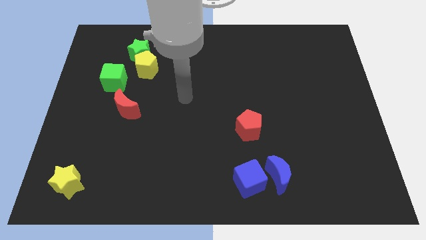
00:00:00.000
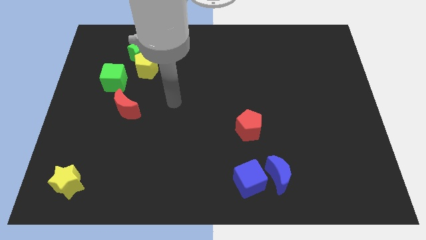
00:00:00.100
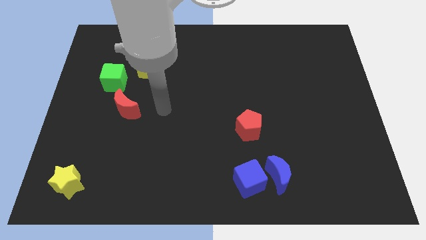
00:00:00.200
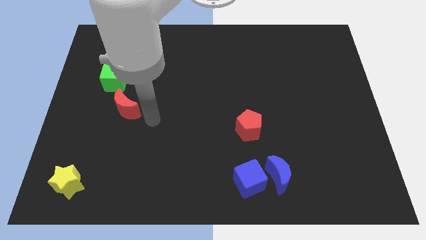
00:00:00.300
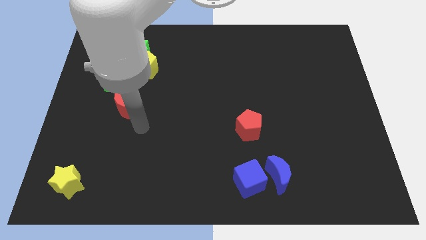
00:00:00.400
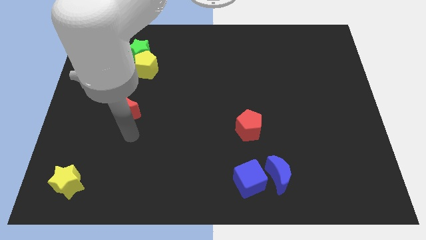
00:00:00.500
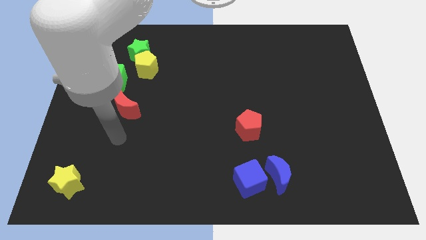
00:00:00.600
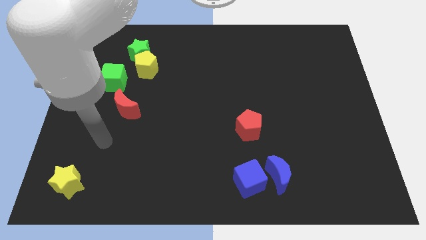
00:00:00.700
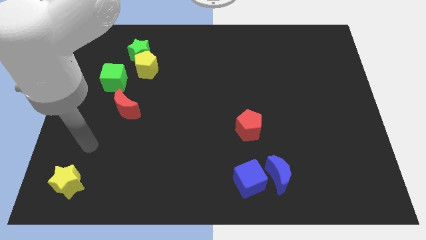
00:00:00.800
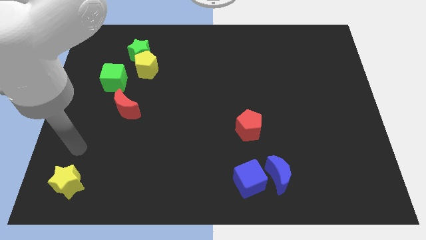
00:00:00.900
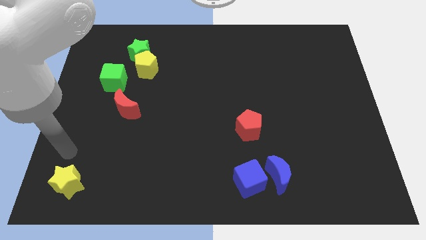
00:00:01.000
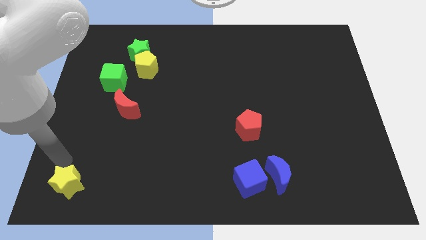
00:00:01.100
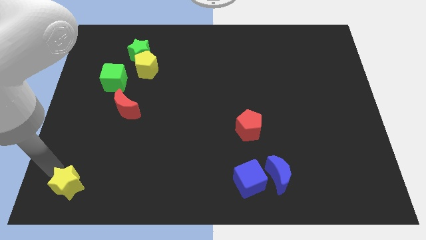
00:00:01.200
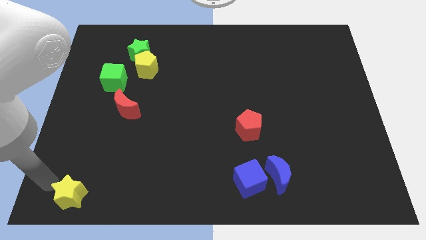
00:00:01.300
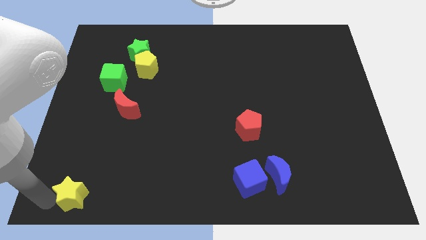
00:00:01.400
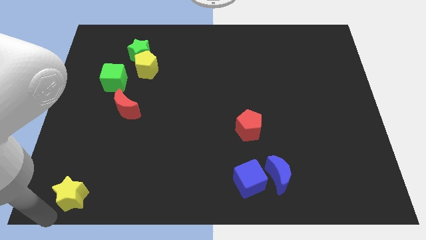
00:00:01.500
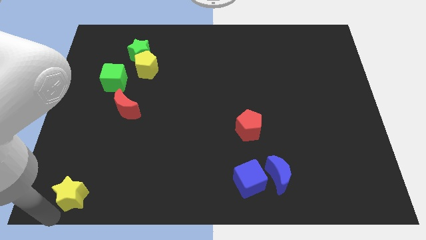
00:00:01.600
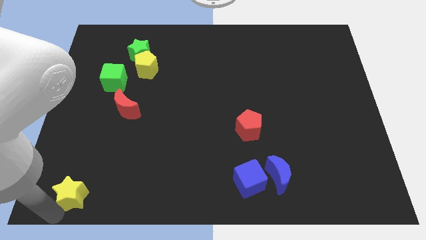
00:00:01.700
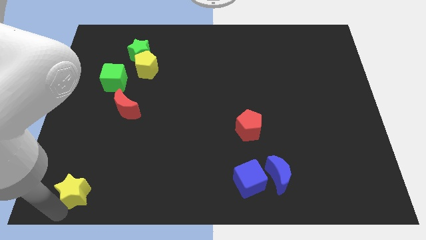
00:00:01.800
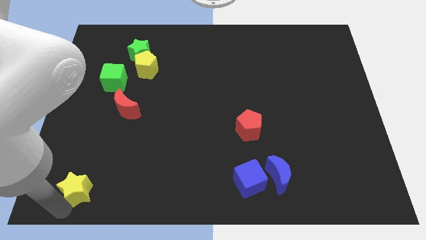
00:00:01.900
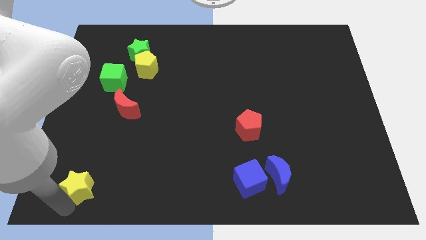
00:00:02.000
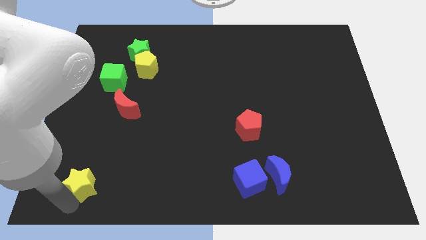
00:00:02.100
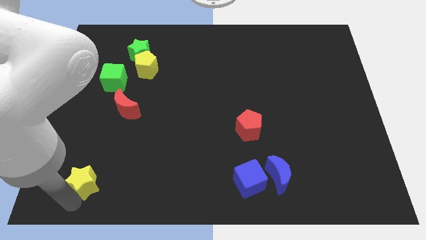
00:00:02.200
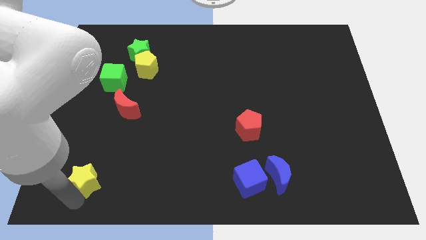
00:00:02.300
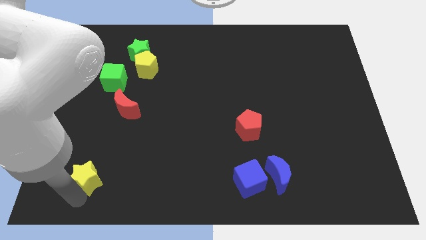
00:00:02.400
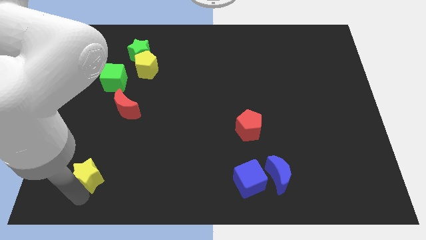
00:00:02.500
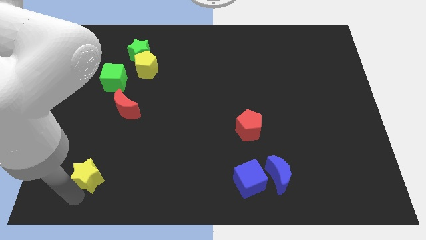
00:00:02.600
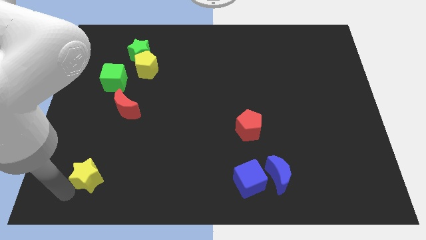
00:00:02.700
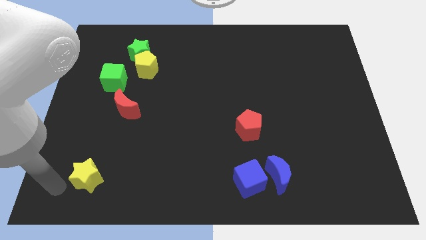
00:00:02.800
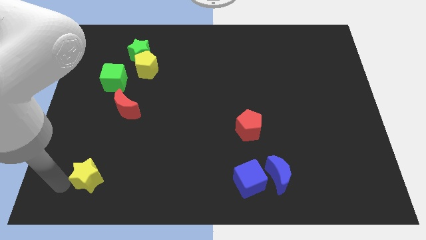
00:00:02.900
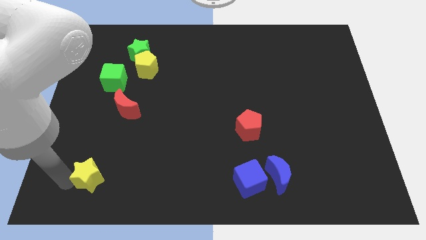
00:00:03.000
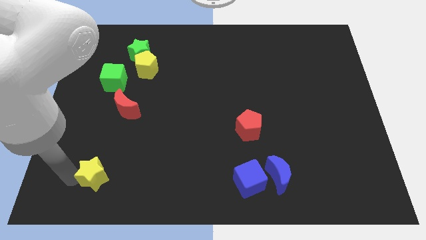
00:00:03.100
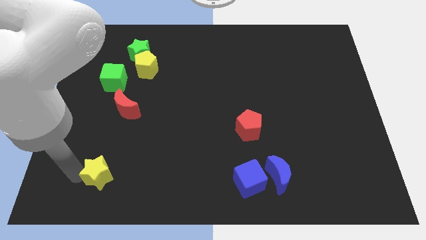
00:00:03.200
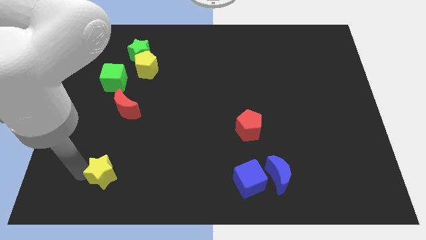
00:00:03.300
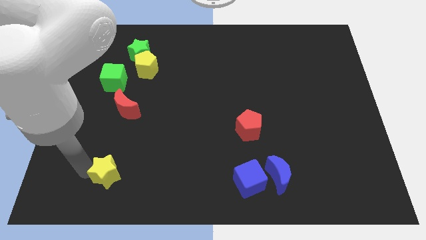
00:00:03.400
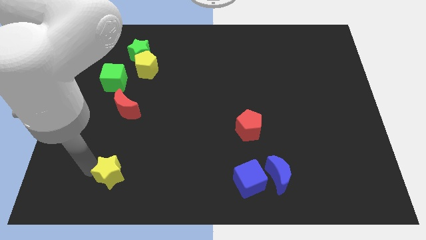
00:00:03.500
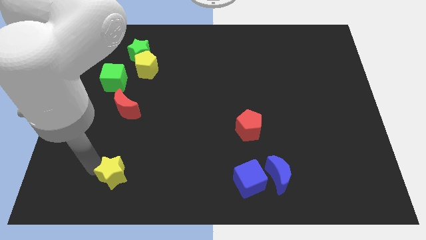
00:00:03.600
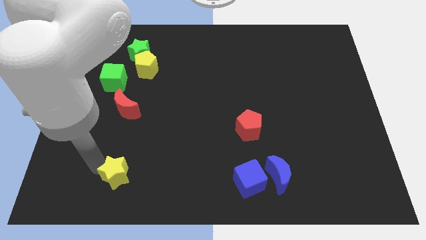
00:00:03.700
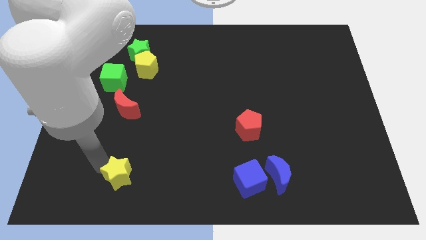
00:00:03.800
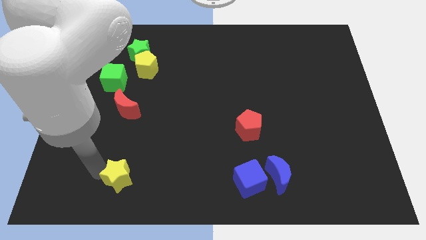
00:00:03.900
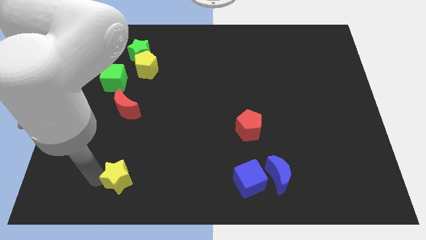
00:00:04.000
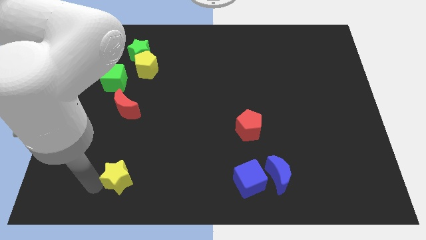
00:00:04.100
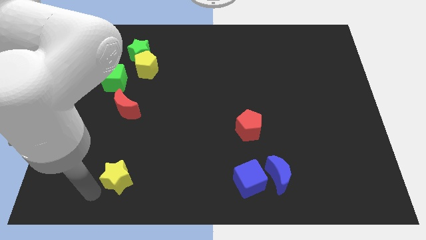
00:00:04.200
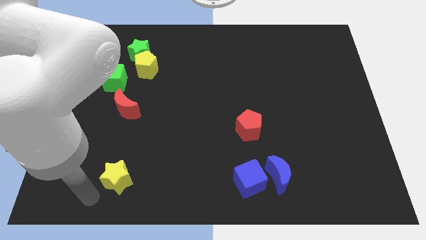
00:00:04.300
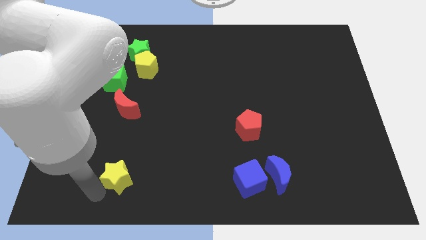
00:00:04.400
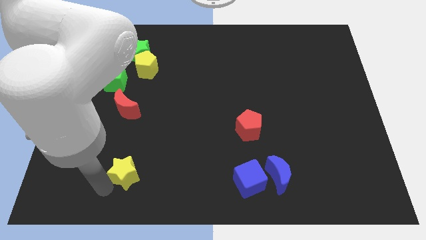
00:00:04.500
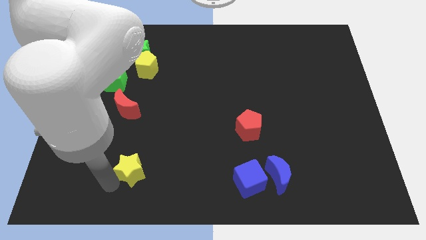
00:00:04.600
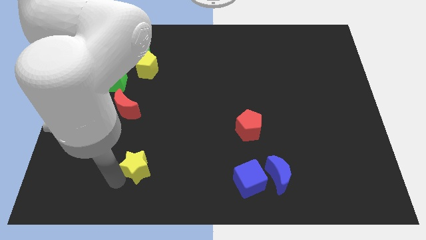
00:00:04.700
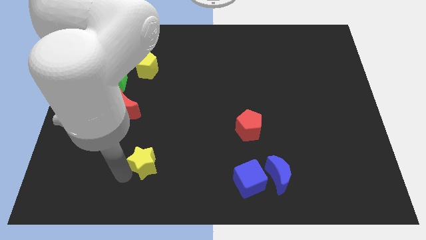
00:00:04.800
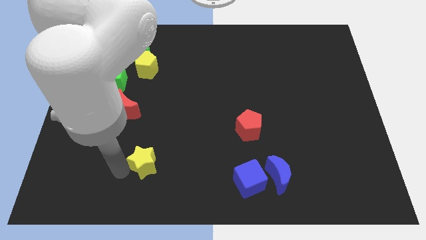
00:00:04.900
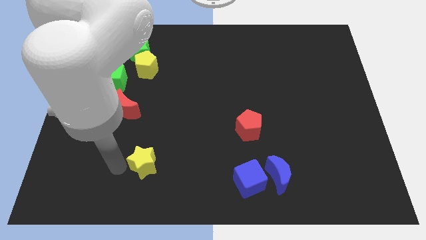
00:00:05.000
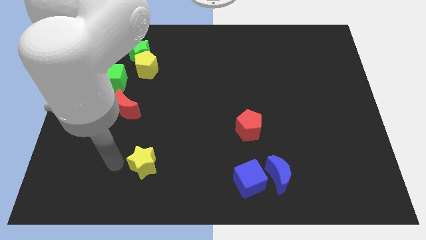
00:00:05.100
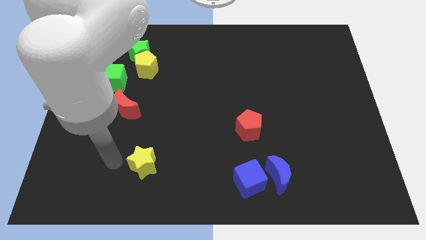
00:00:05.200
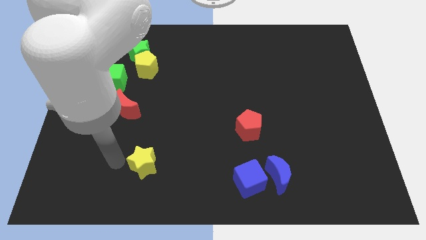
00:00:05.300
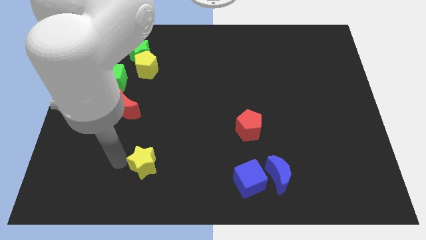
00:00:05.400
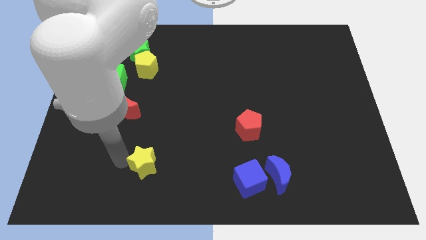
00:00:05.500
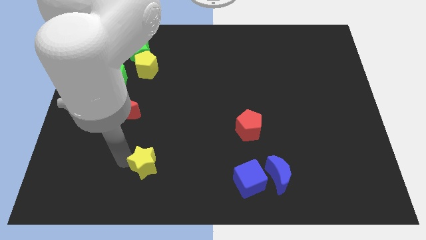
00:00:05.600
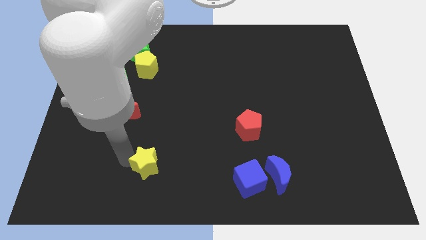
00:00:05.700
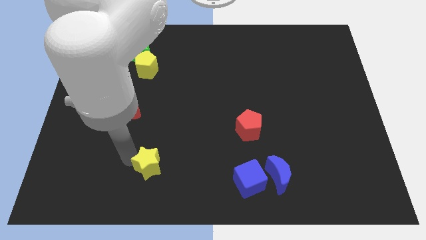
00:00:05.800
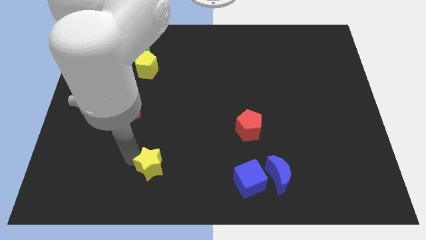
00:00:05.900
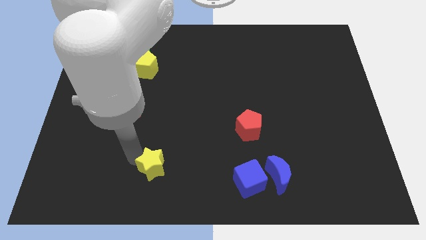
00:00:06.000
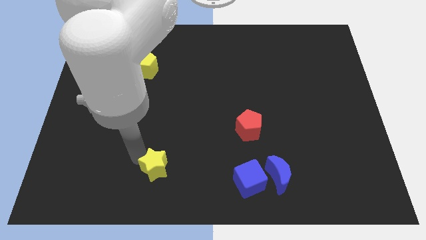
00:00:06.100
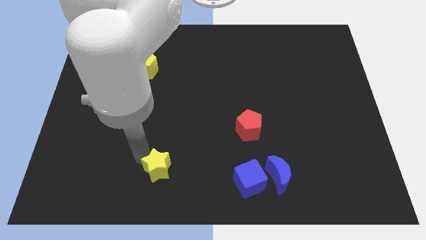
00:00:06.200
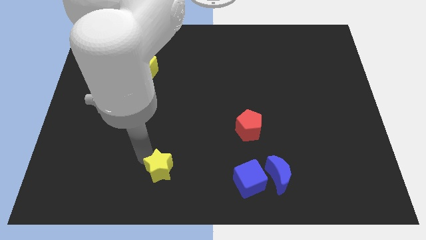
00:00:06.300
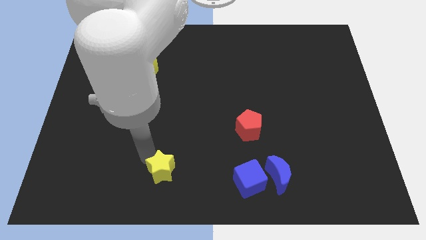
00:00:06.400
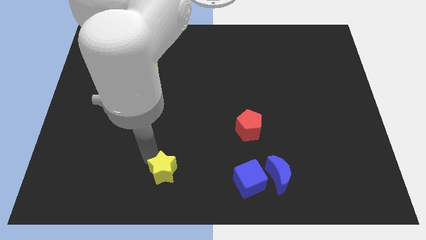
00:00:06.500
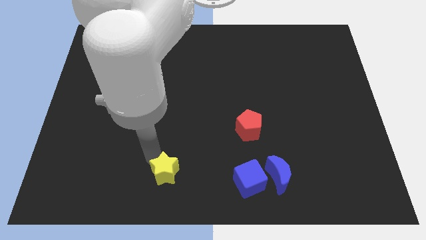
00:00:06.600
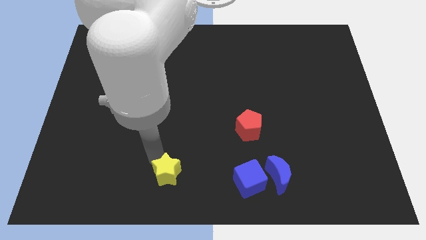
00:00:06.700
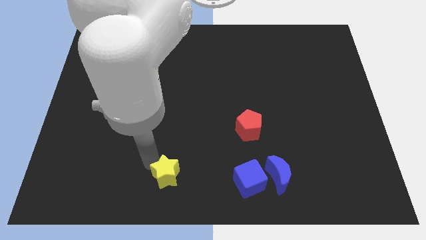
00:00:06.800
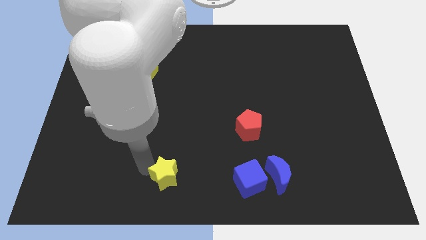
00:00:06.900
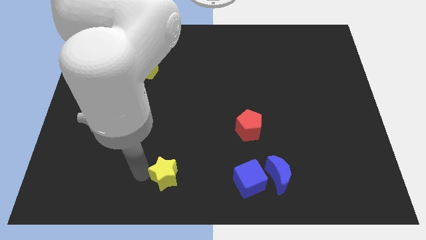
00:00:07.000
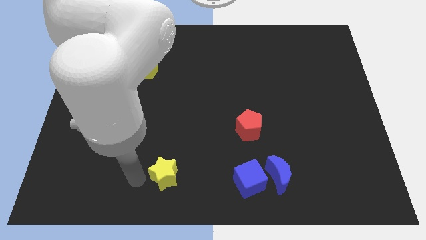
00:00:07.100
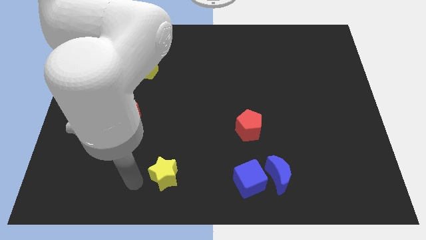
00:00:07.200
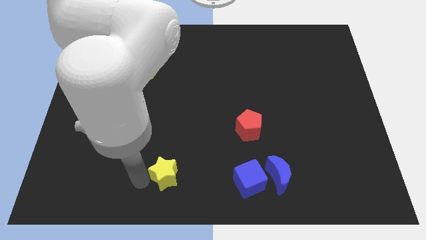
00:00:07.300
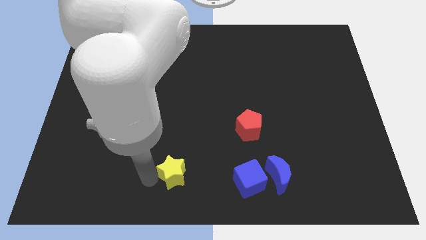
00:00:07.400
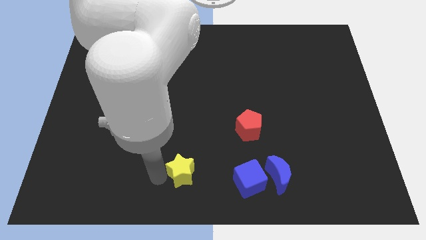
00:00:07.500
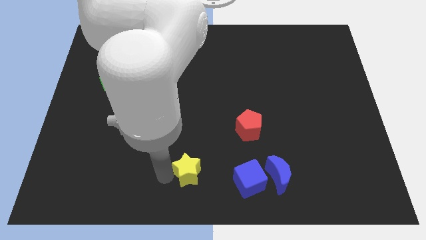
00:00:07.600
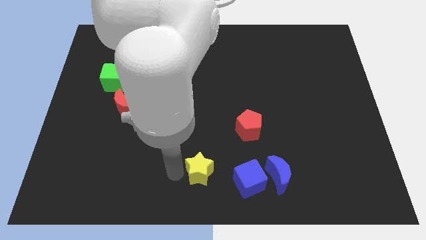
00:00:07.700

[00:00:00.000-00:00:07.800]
slide the yellow star to the left side of the blue moon
